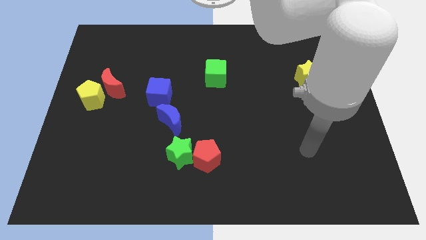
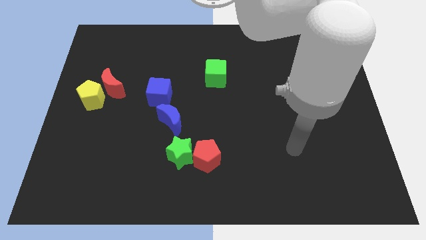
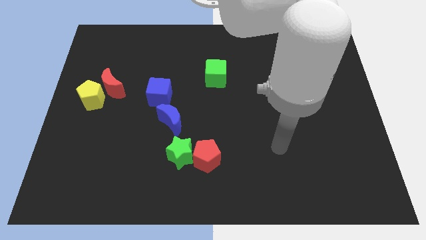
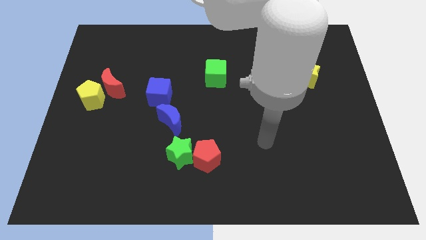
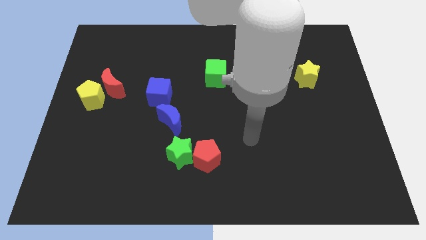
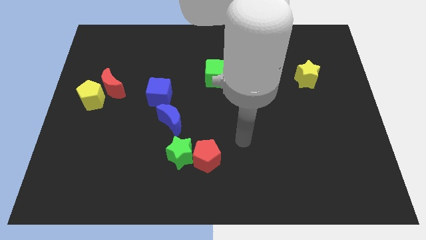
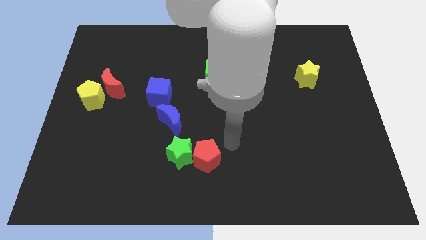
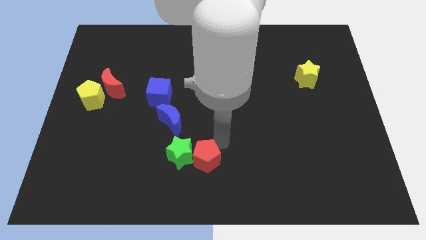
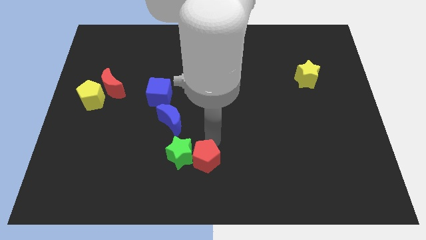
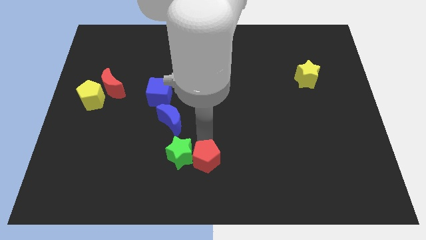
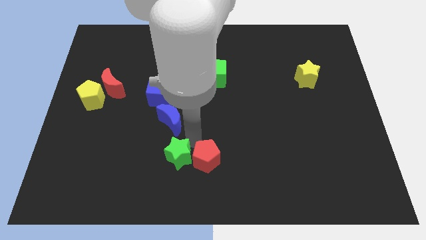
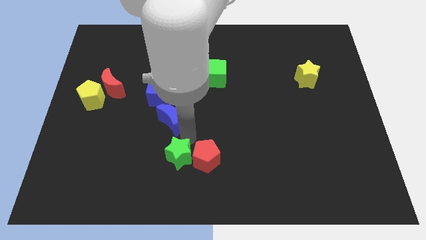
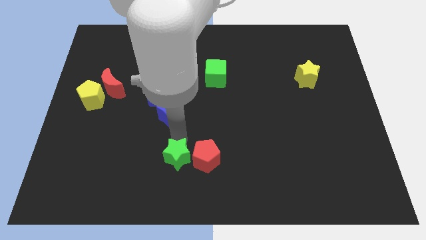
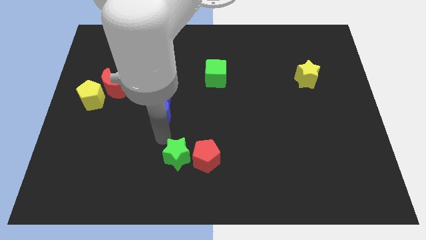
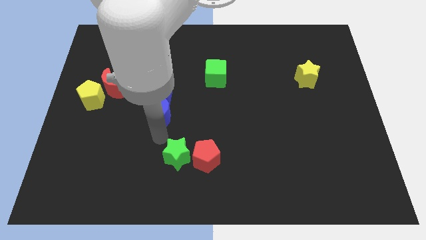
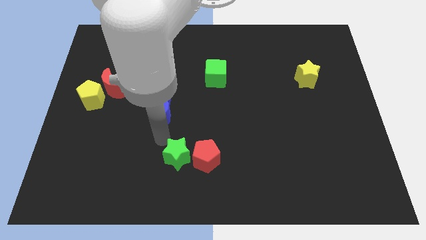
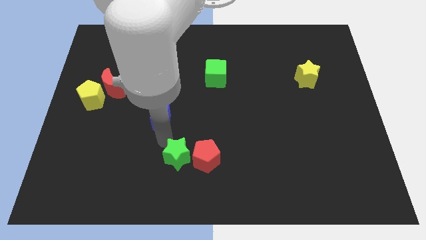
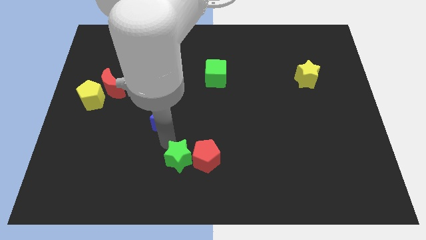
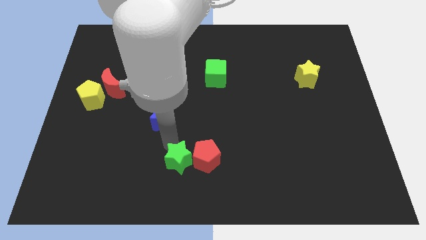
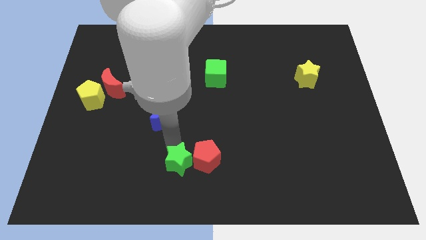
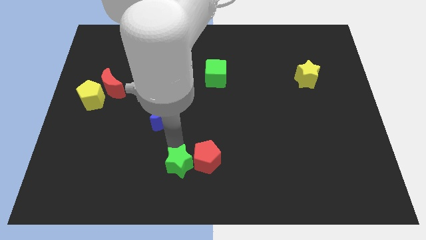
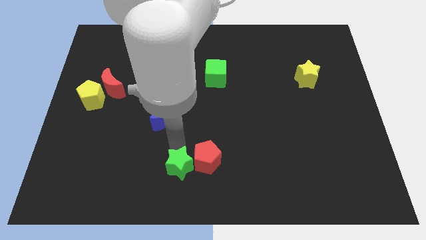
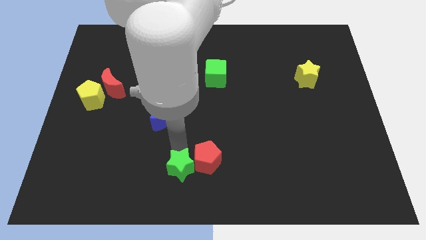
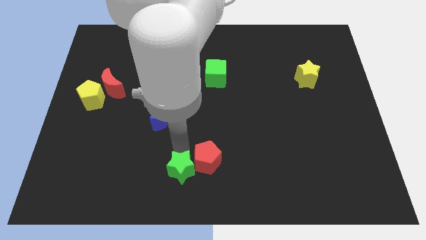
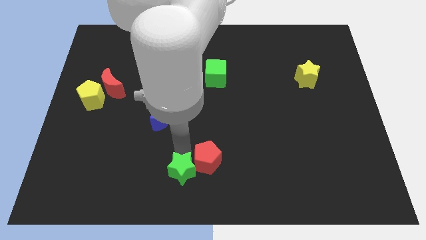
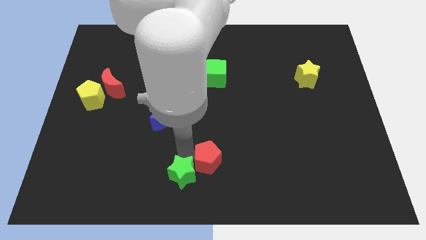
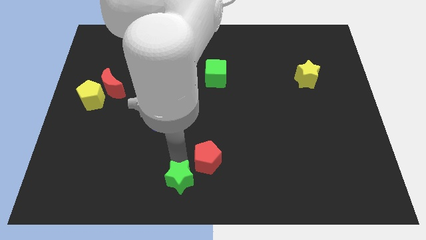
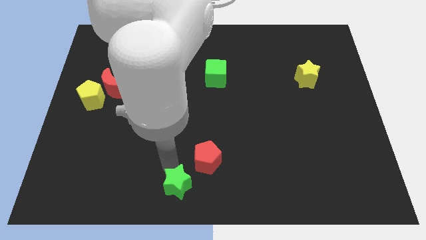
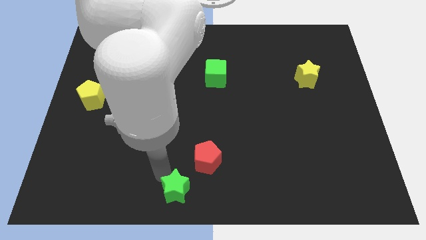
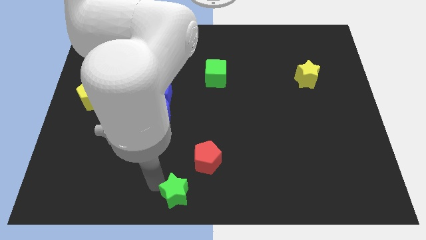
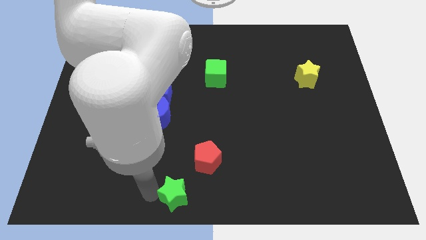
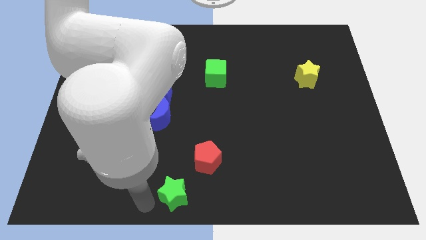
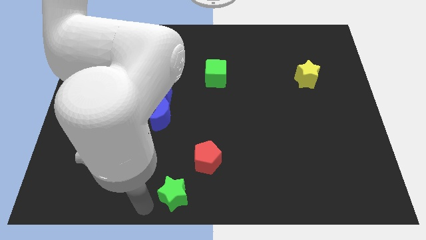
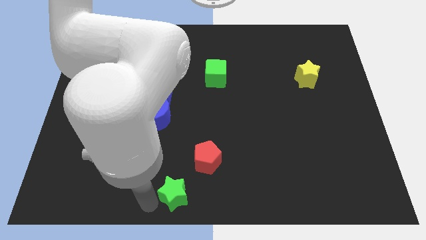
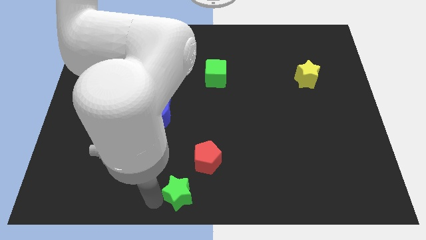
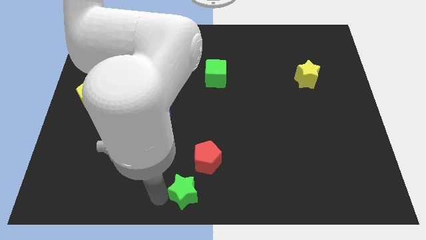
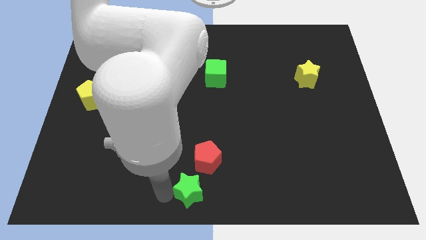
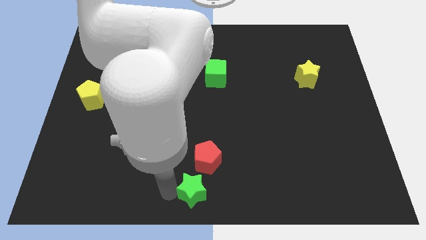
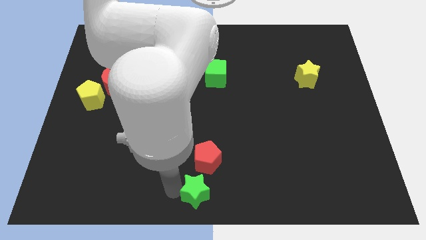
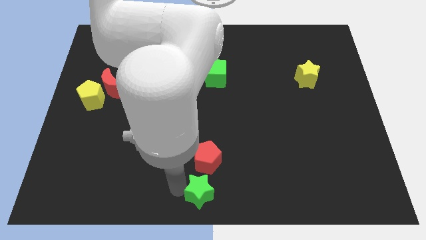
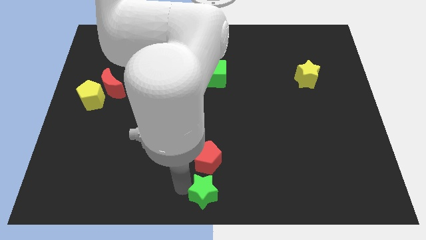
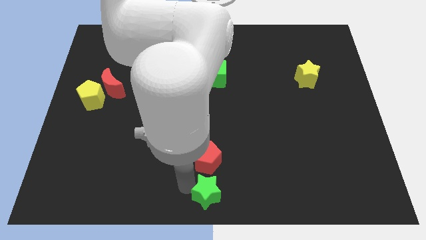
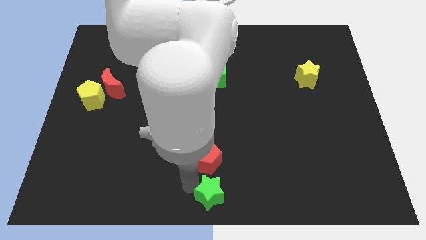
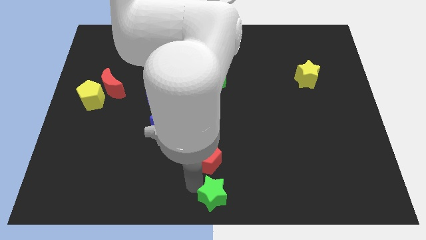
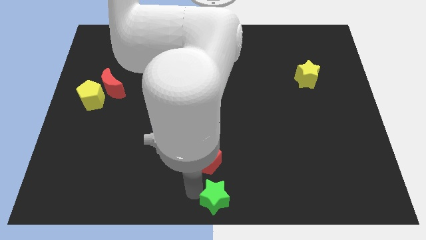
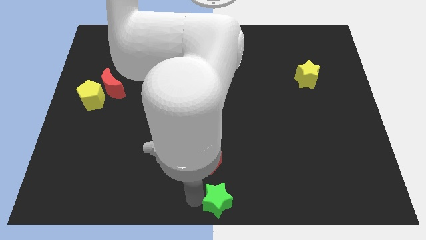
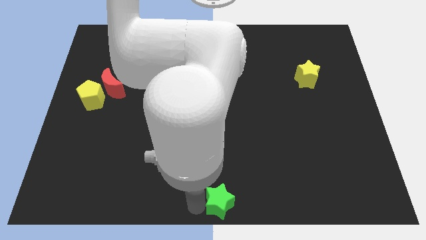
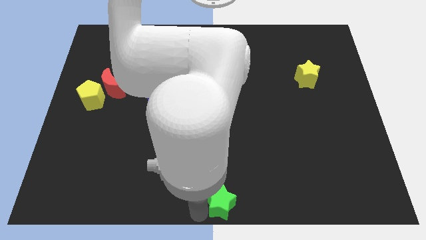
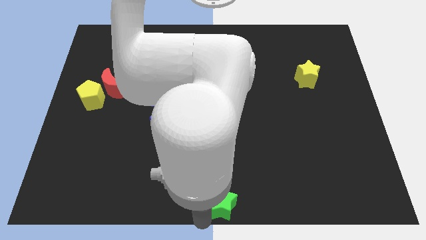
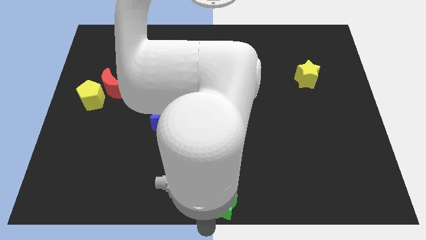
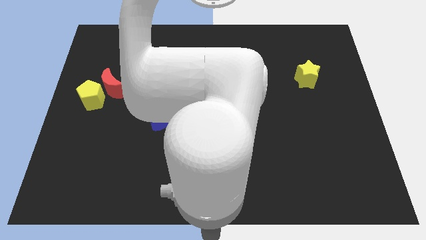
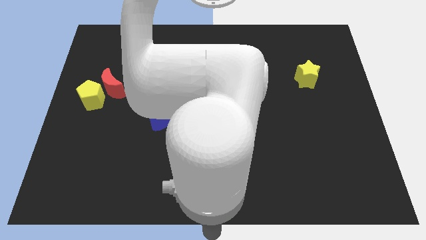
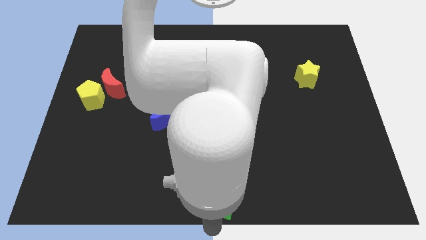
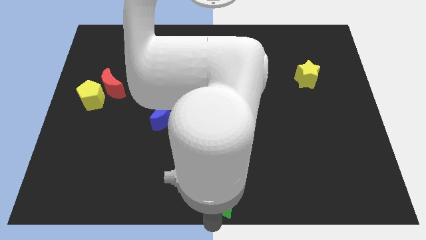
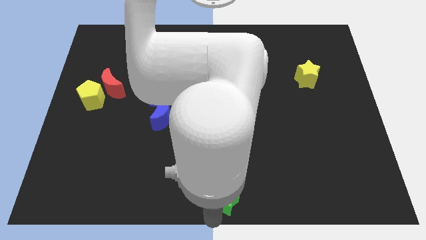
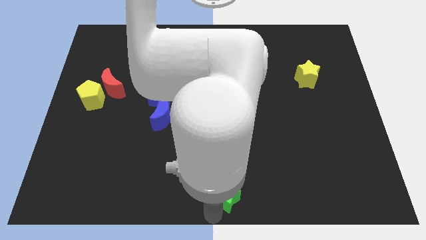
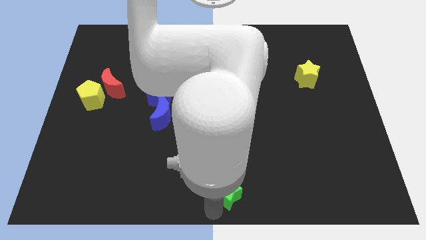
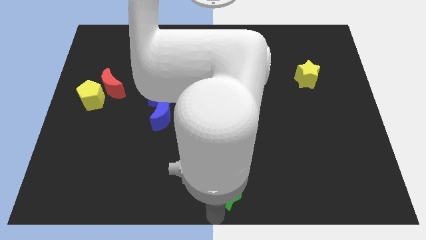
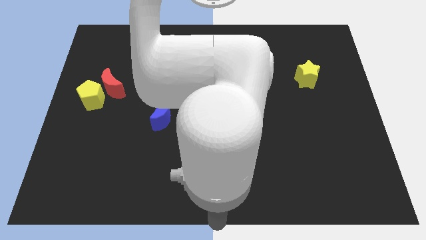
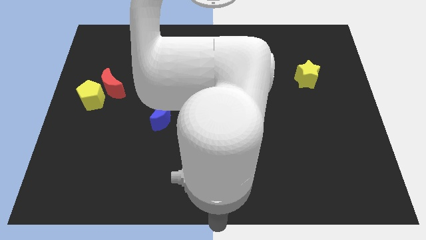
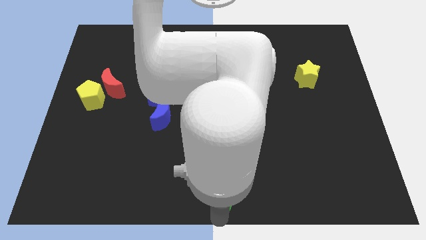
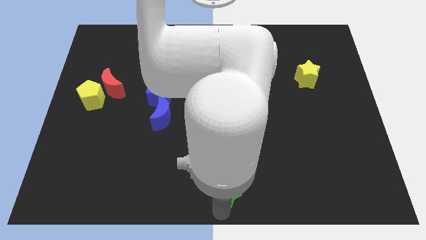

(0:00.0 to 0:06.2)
move the green star a bit right

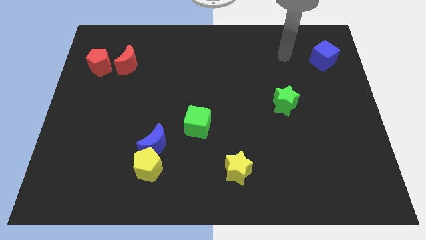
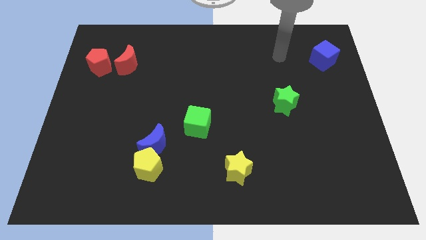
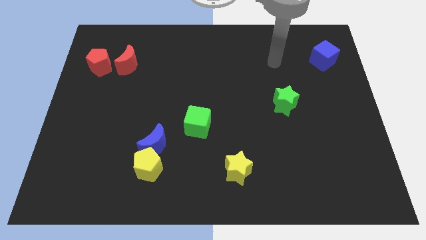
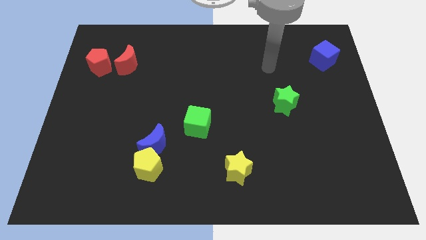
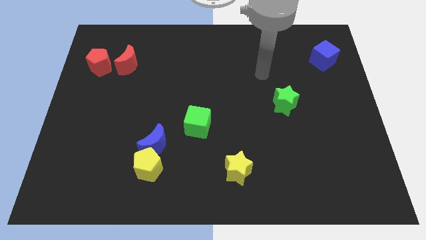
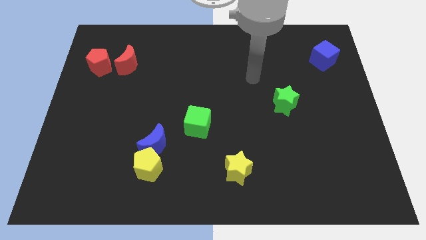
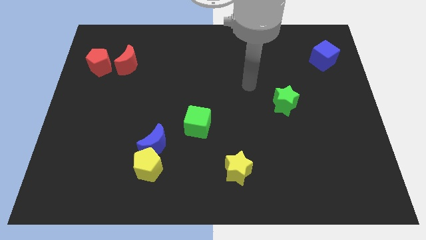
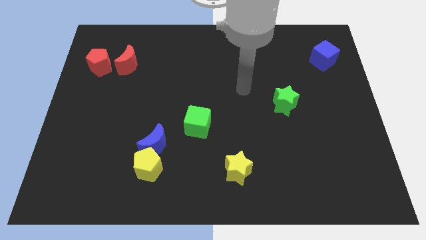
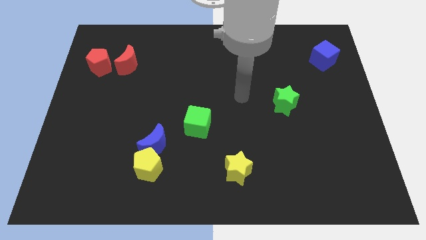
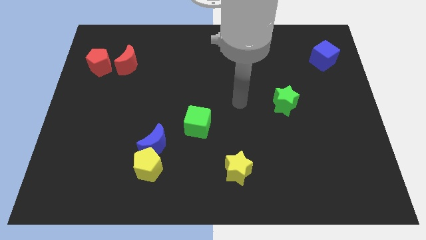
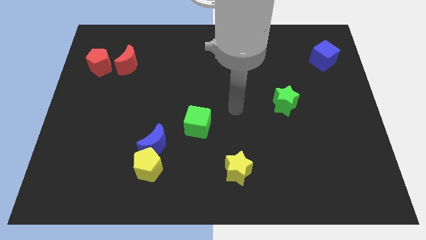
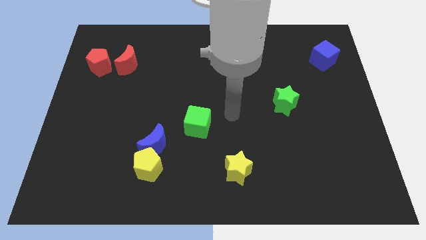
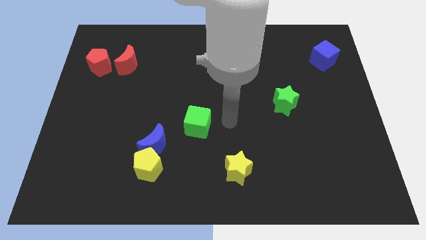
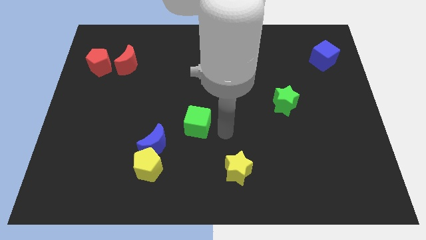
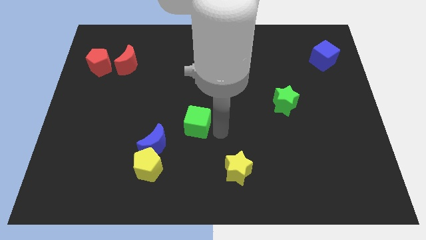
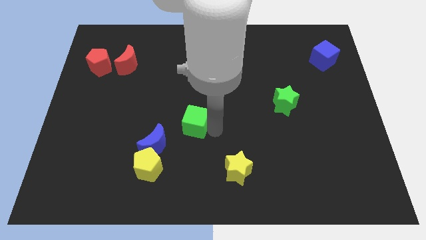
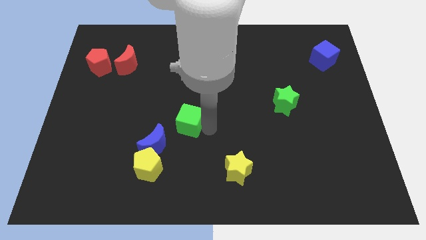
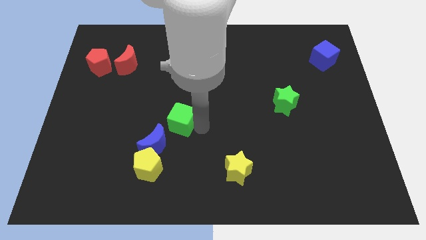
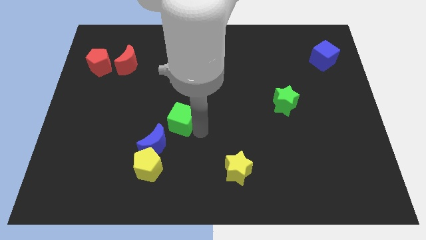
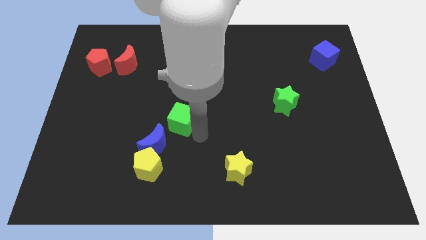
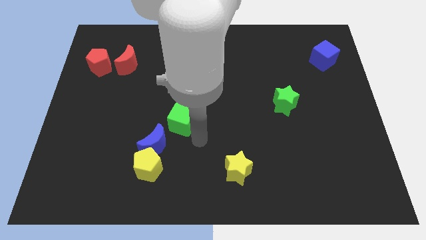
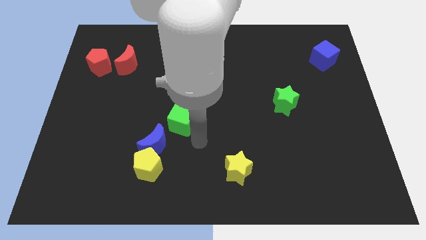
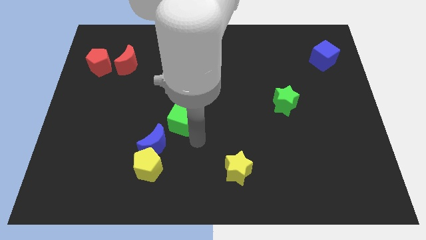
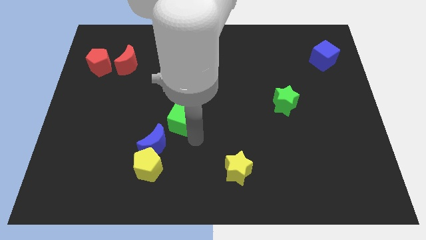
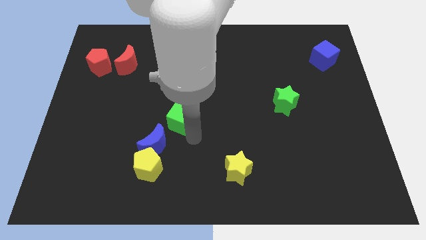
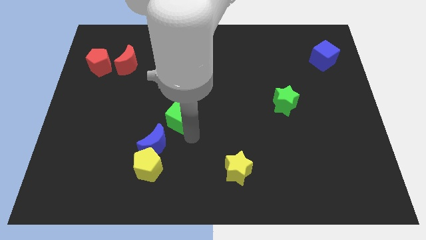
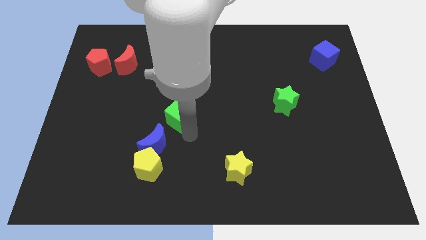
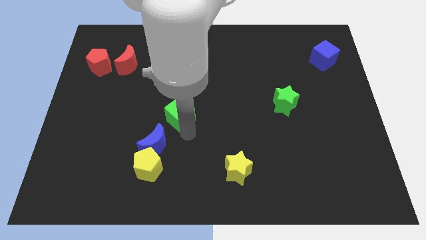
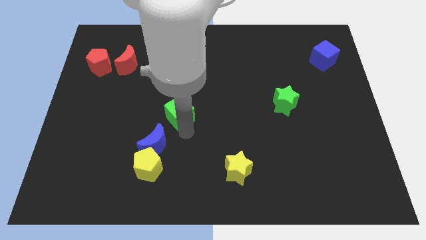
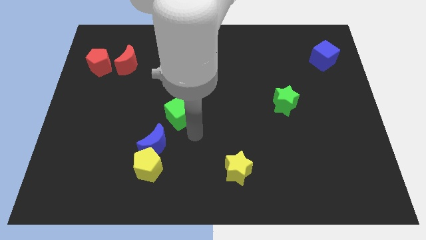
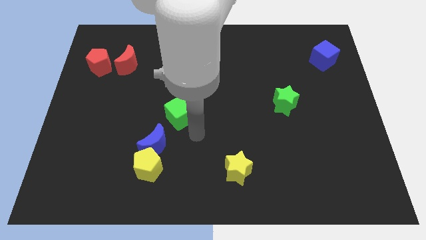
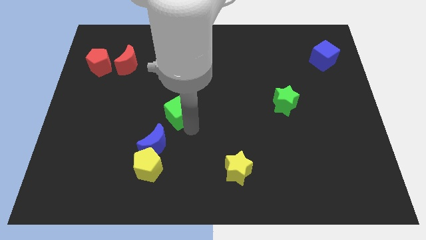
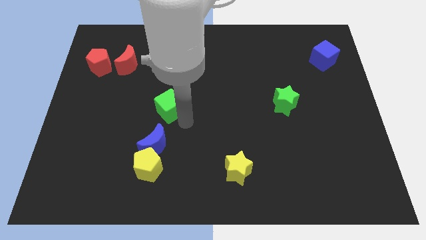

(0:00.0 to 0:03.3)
slightly move the green cube diagonally up and left
